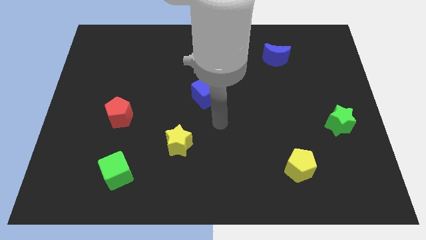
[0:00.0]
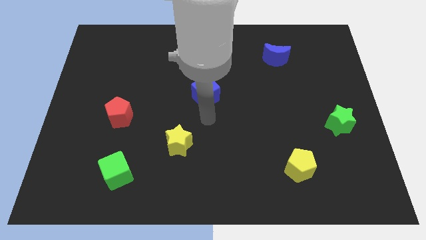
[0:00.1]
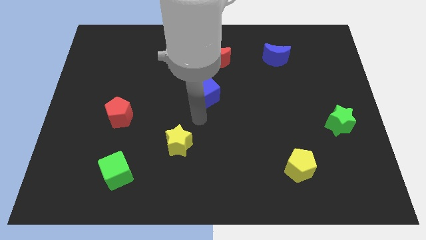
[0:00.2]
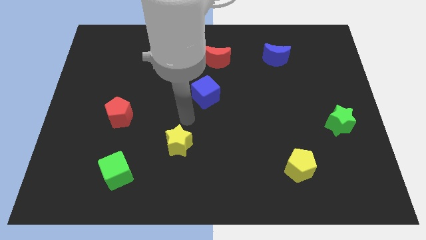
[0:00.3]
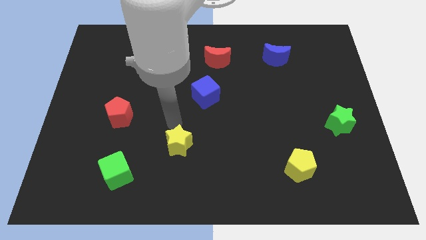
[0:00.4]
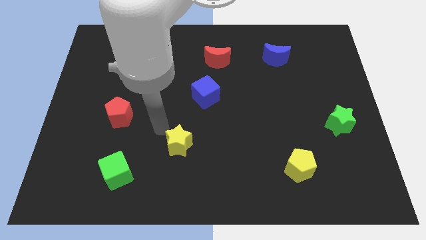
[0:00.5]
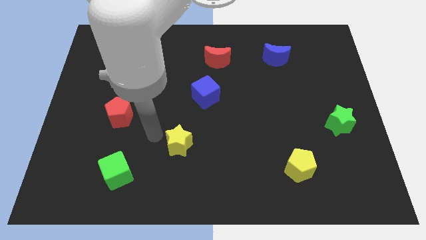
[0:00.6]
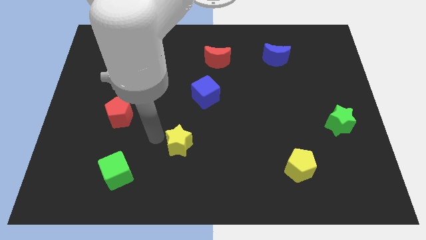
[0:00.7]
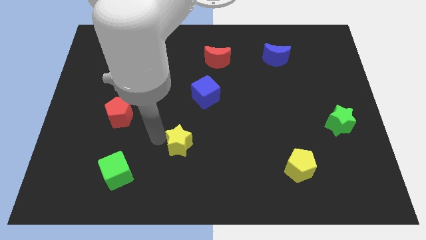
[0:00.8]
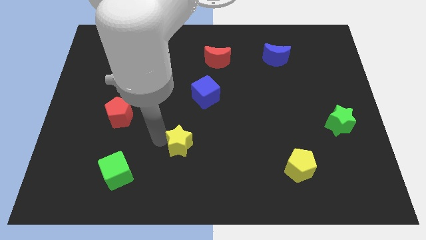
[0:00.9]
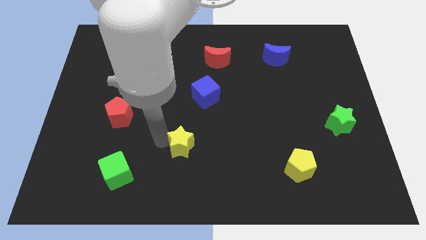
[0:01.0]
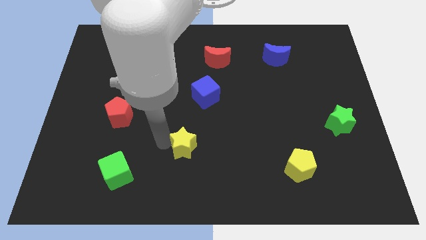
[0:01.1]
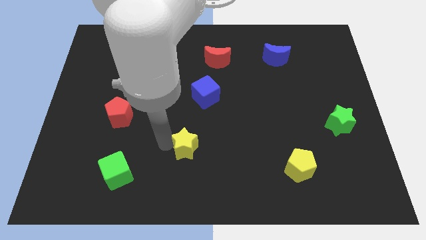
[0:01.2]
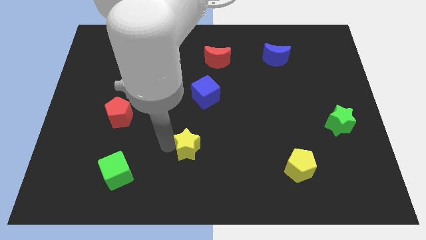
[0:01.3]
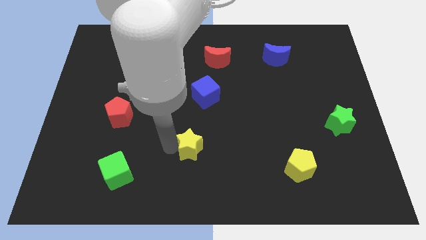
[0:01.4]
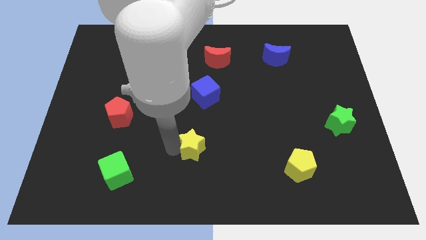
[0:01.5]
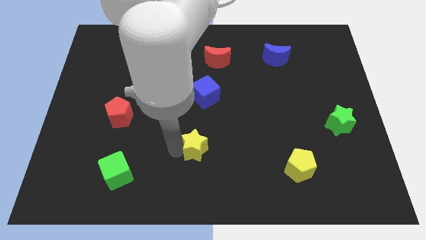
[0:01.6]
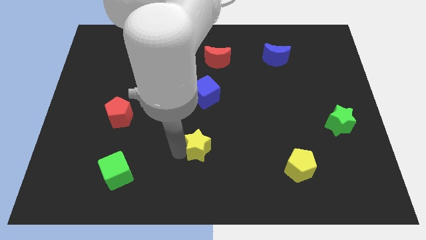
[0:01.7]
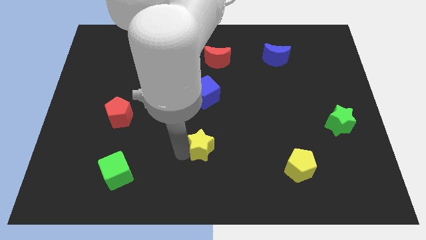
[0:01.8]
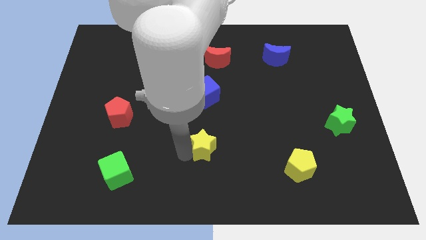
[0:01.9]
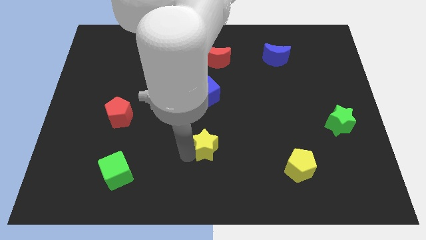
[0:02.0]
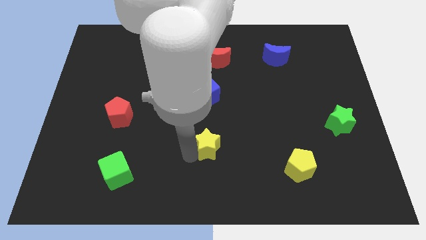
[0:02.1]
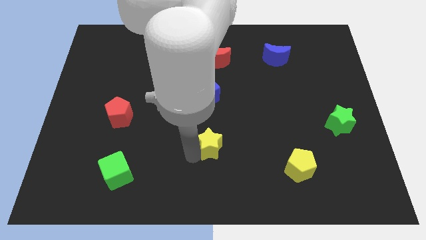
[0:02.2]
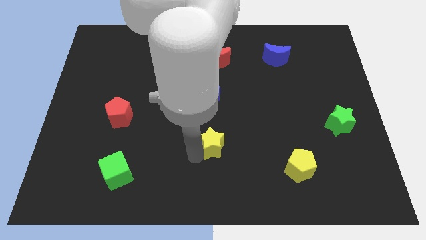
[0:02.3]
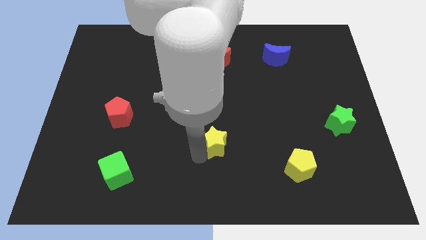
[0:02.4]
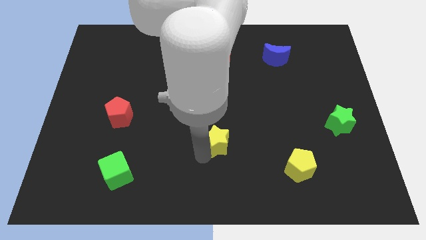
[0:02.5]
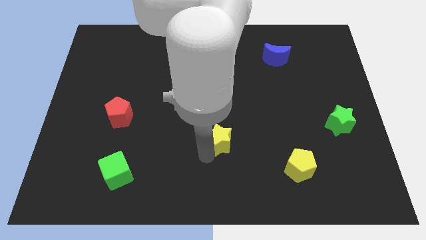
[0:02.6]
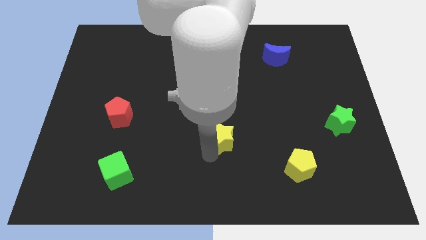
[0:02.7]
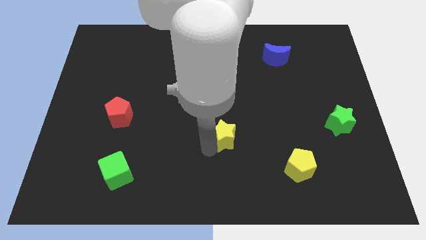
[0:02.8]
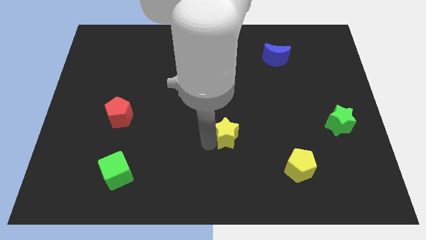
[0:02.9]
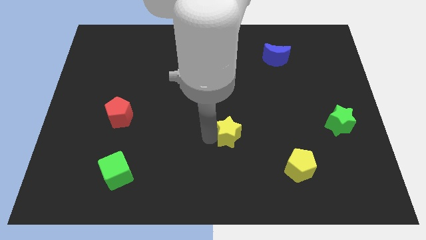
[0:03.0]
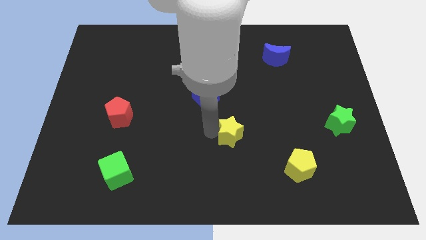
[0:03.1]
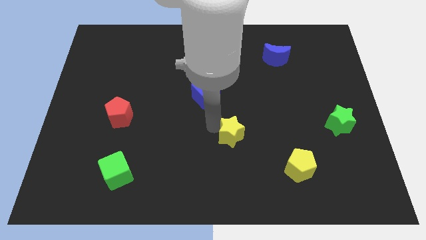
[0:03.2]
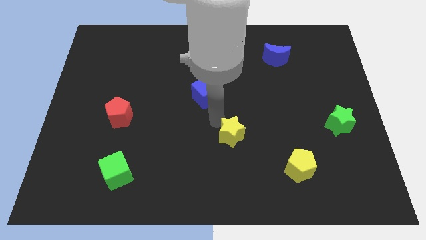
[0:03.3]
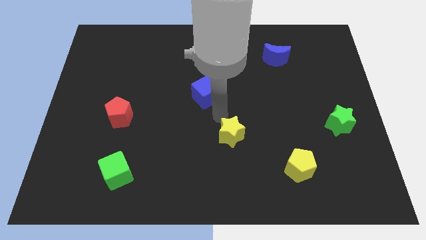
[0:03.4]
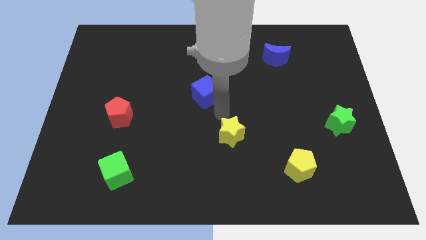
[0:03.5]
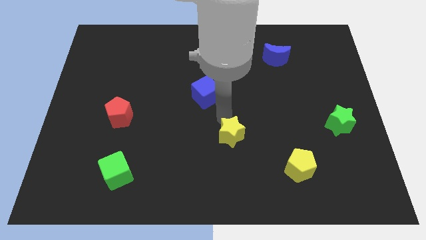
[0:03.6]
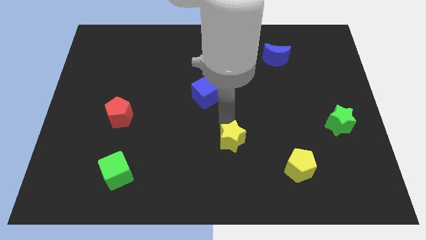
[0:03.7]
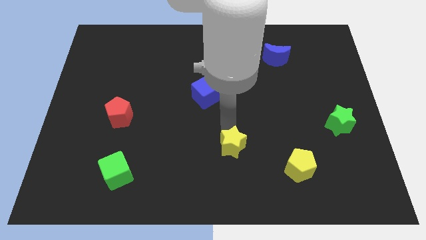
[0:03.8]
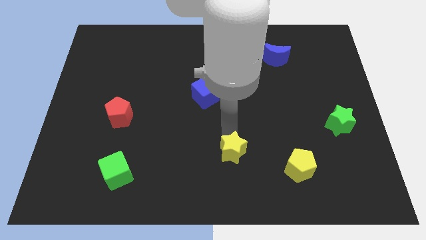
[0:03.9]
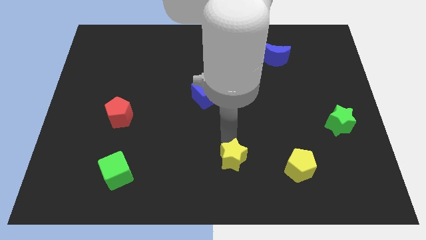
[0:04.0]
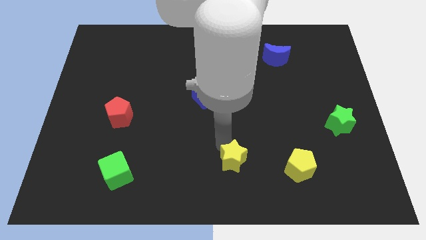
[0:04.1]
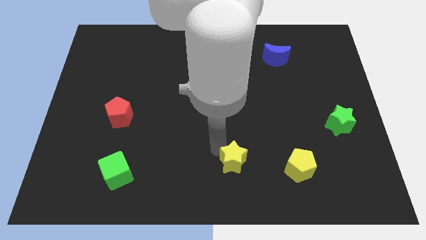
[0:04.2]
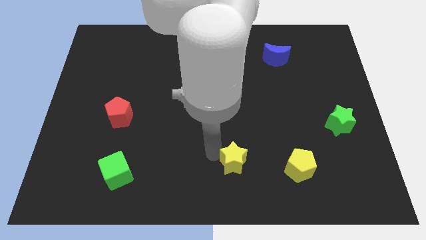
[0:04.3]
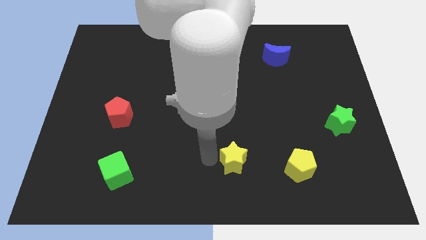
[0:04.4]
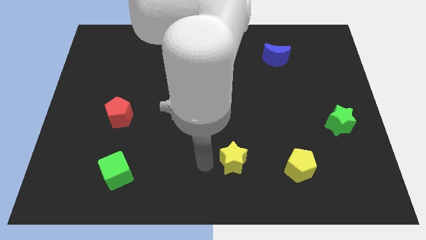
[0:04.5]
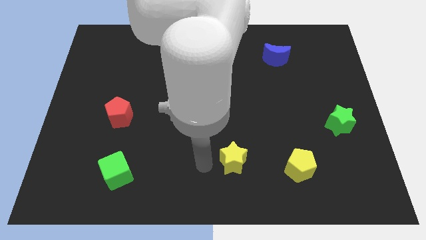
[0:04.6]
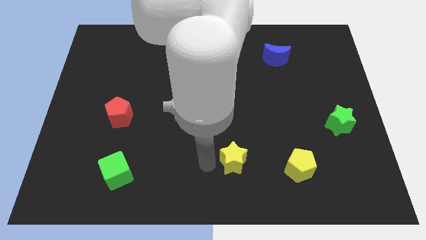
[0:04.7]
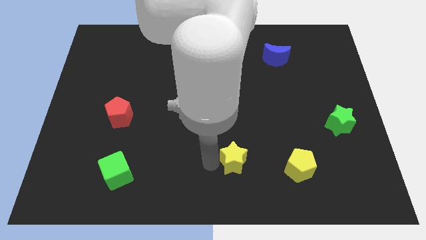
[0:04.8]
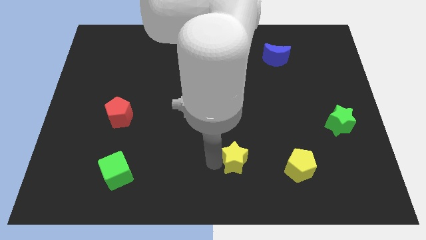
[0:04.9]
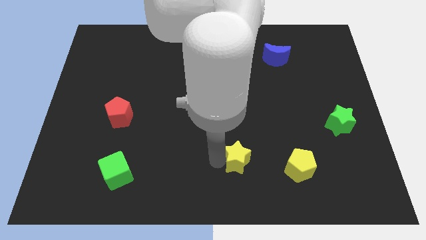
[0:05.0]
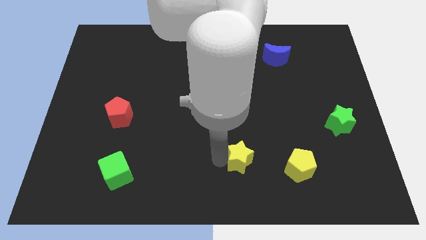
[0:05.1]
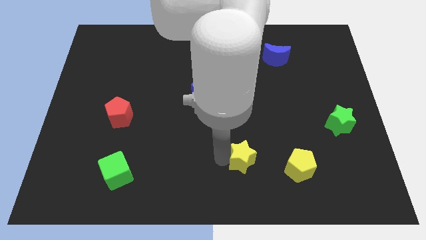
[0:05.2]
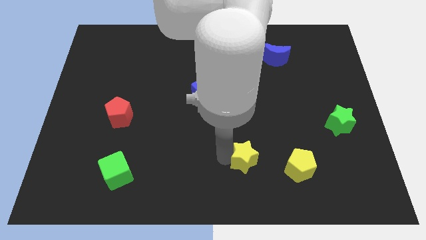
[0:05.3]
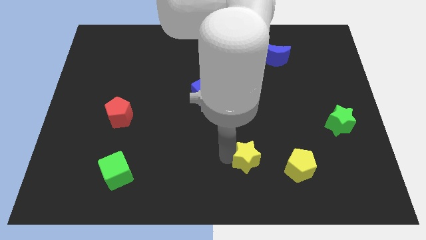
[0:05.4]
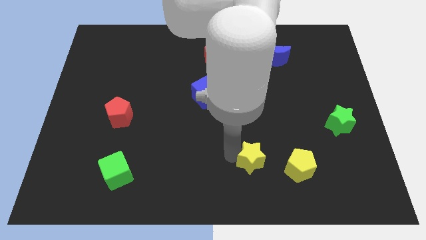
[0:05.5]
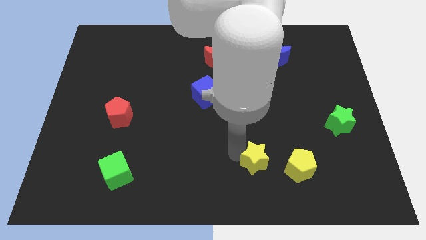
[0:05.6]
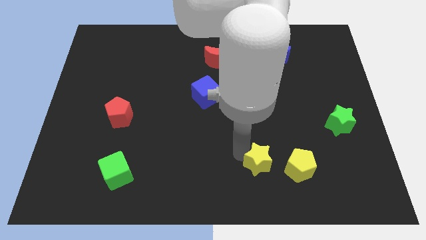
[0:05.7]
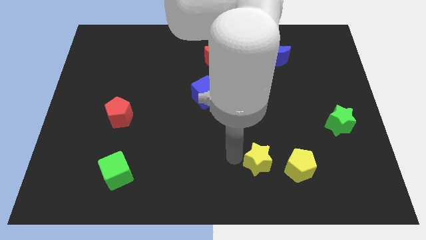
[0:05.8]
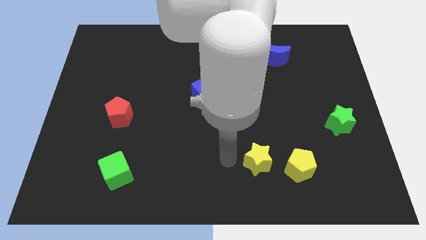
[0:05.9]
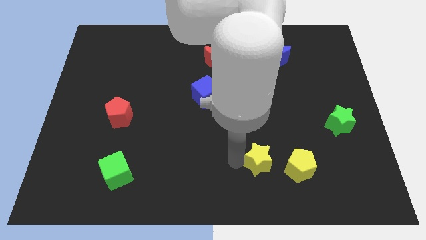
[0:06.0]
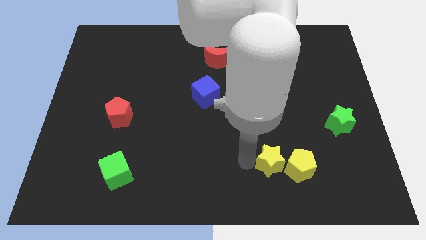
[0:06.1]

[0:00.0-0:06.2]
move the yellow star next to the yellow pentagon

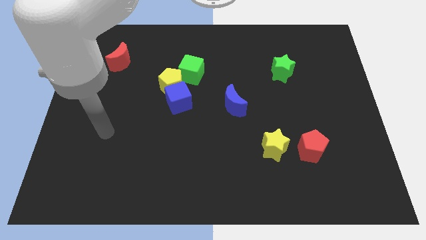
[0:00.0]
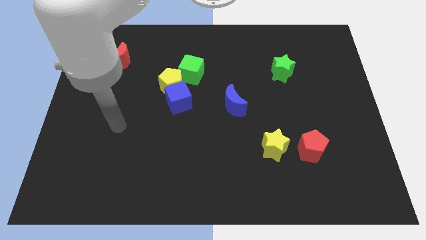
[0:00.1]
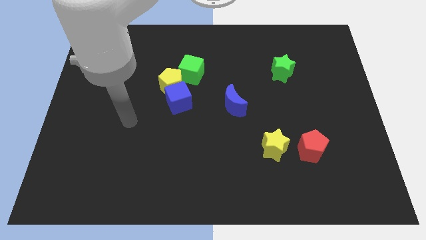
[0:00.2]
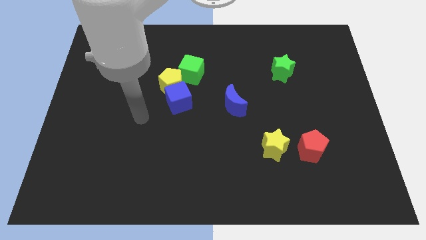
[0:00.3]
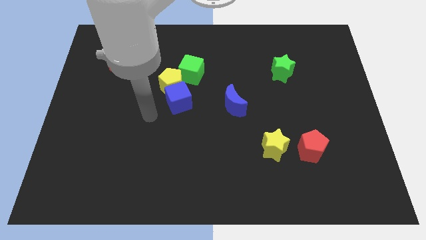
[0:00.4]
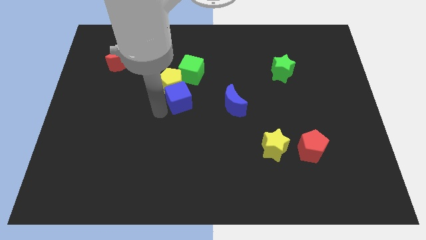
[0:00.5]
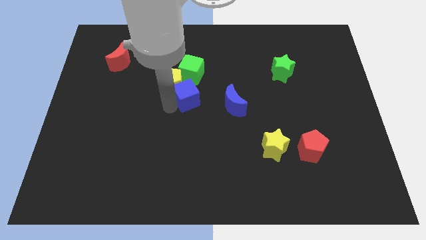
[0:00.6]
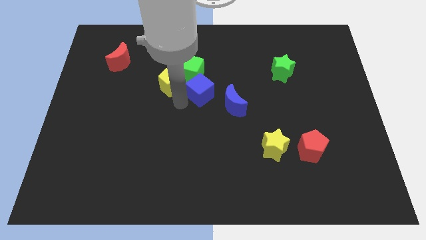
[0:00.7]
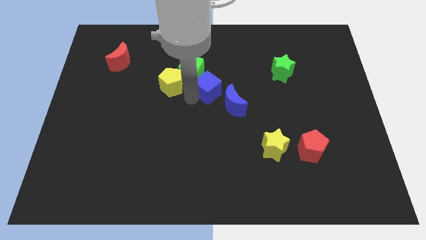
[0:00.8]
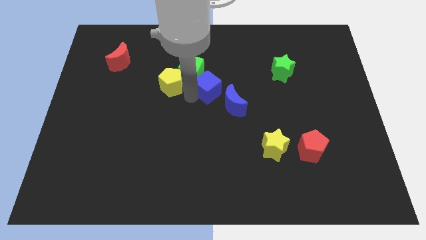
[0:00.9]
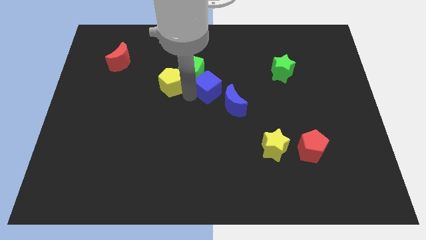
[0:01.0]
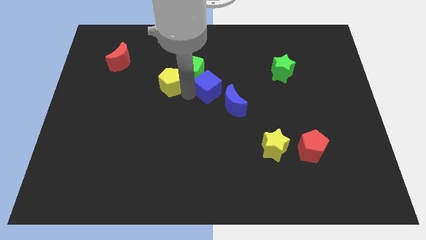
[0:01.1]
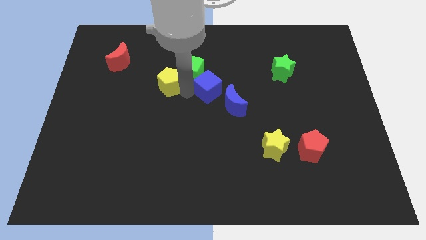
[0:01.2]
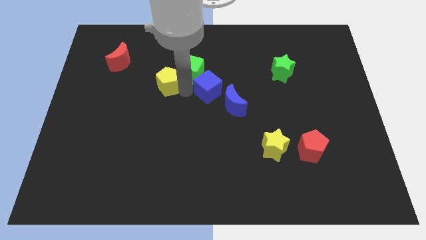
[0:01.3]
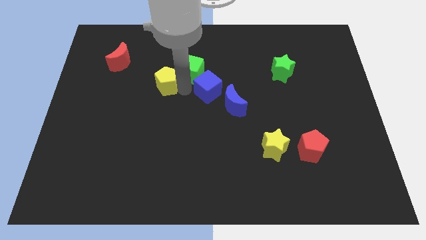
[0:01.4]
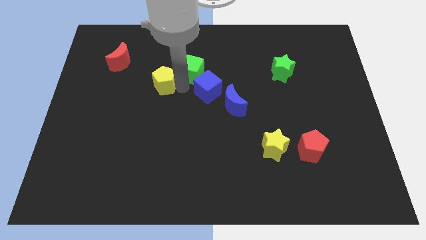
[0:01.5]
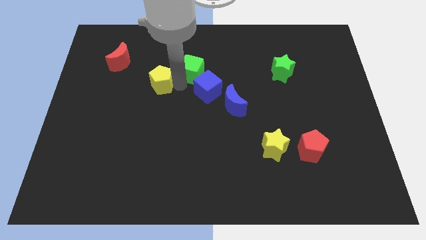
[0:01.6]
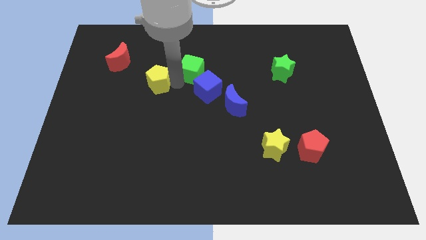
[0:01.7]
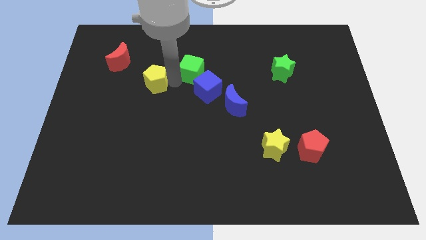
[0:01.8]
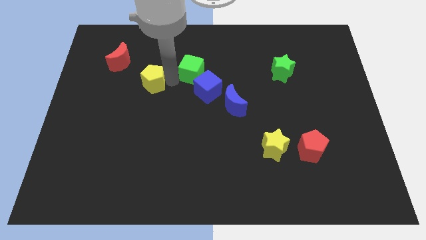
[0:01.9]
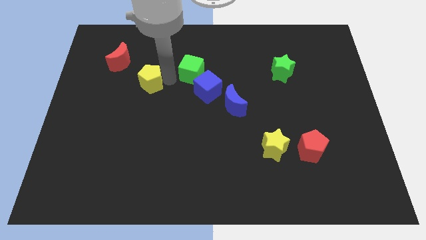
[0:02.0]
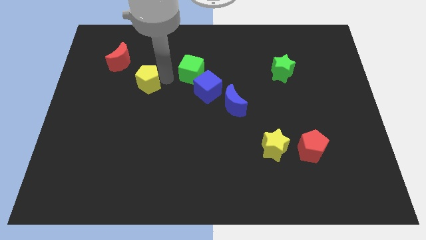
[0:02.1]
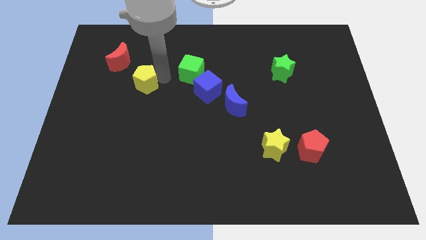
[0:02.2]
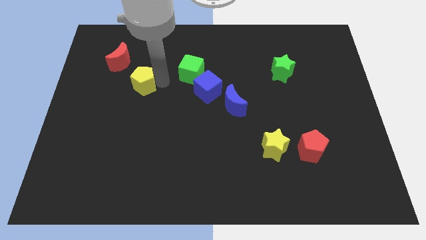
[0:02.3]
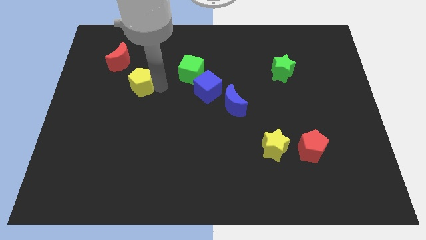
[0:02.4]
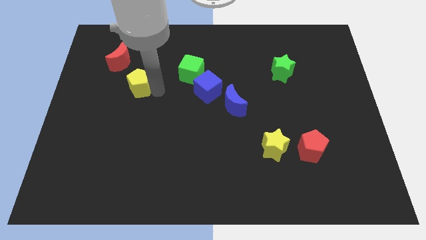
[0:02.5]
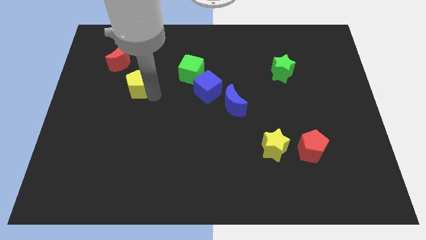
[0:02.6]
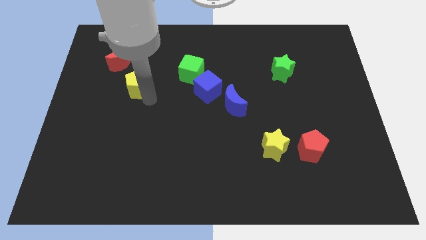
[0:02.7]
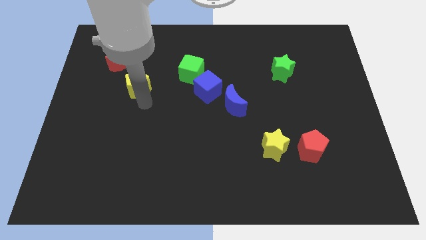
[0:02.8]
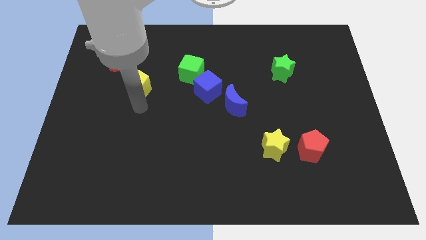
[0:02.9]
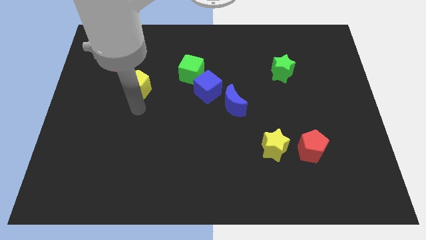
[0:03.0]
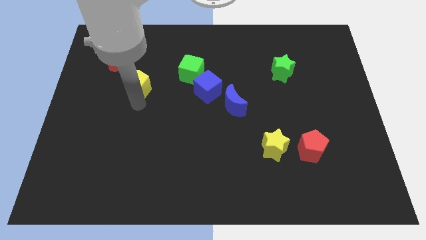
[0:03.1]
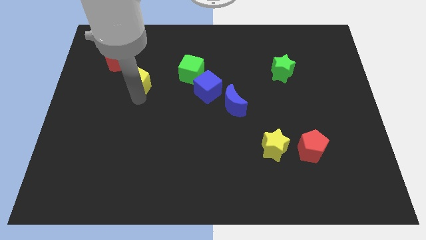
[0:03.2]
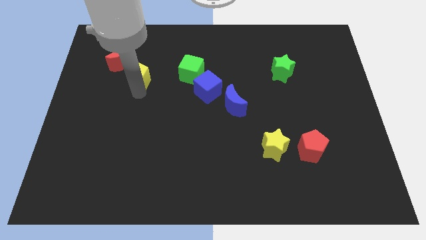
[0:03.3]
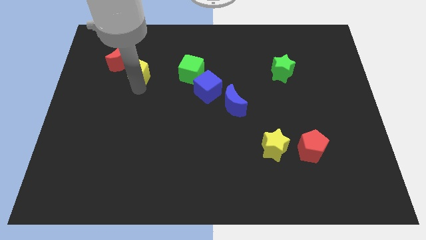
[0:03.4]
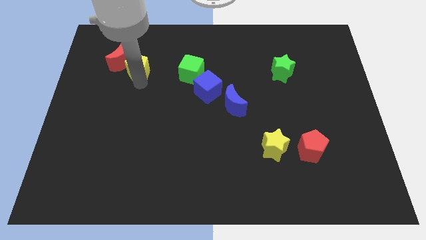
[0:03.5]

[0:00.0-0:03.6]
slide the yellow pentagon close to the red moon
